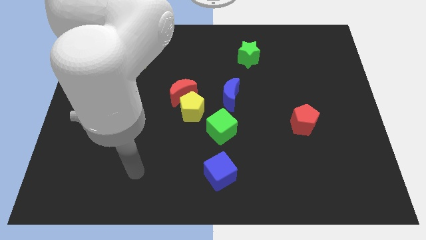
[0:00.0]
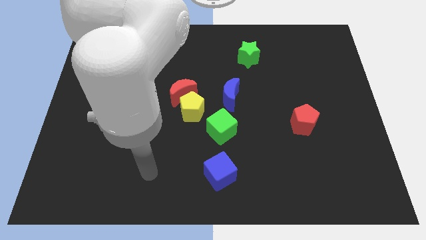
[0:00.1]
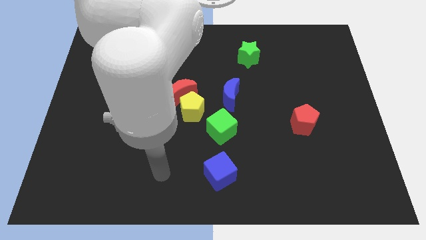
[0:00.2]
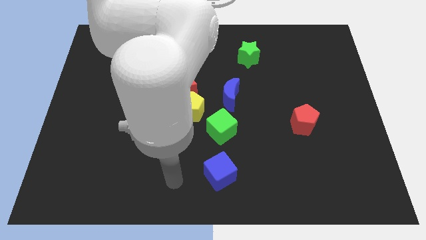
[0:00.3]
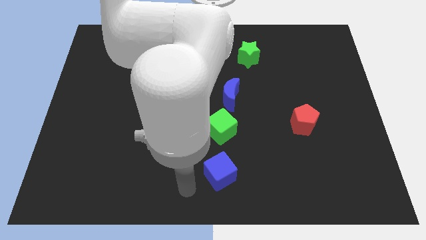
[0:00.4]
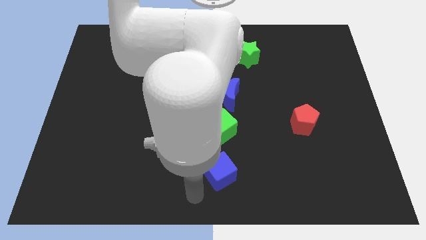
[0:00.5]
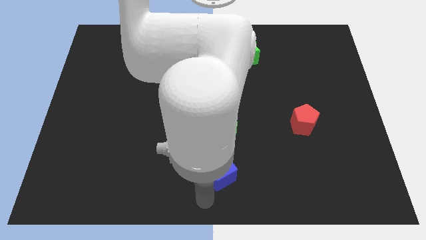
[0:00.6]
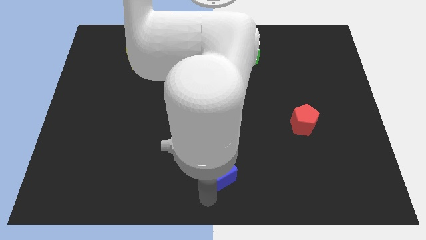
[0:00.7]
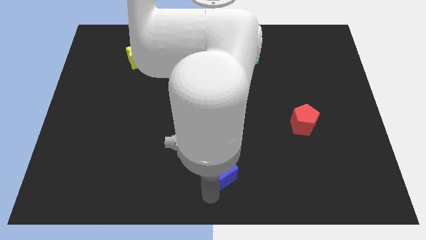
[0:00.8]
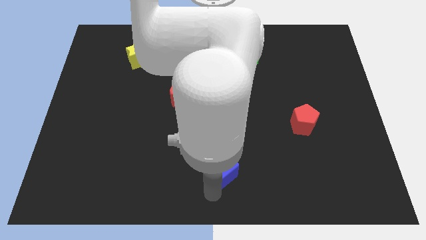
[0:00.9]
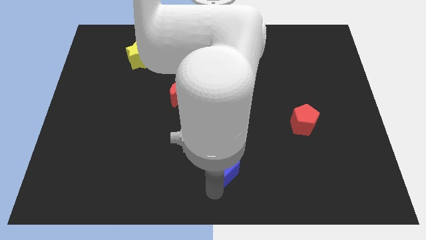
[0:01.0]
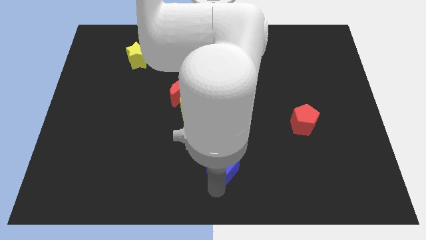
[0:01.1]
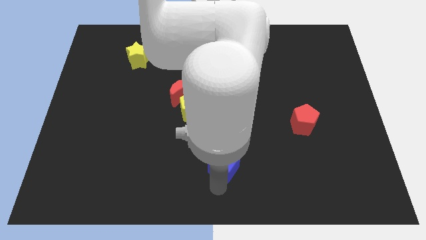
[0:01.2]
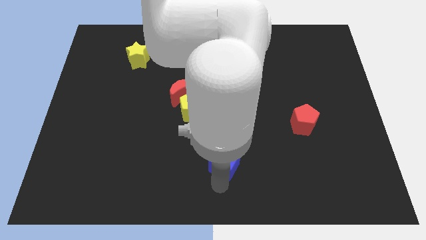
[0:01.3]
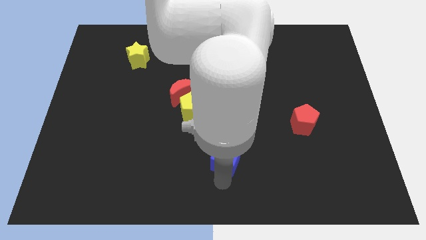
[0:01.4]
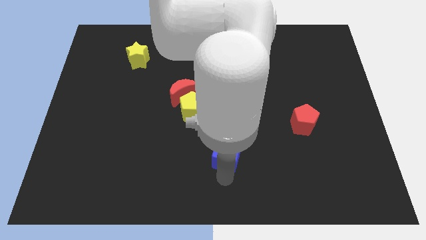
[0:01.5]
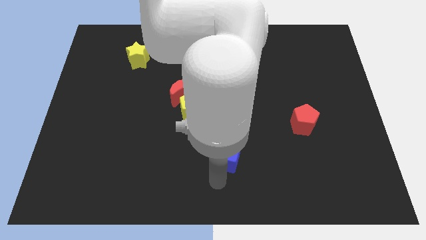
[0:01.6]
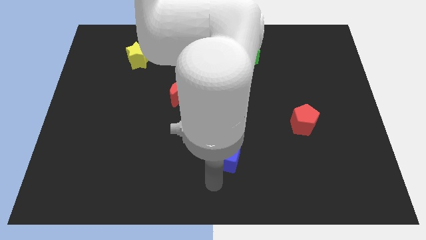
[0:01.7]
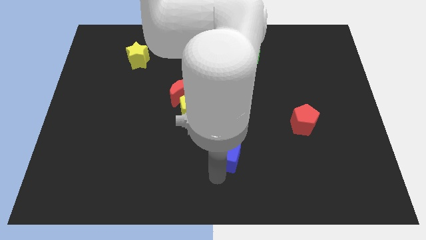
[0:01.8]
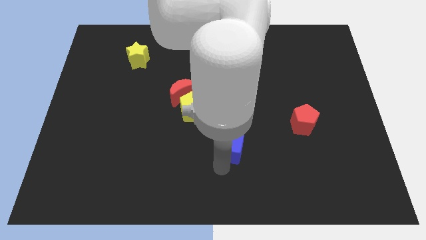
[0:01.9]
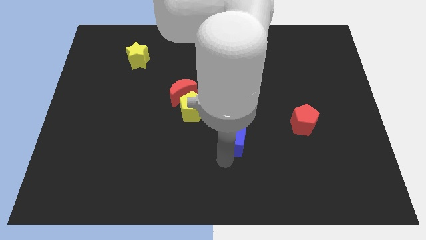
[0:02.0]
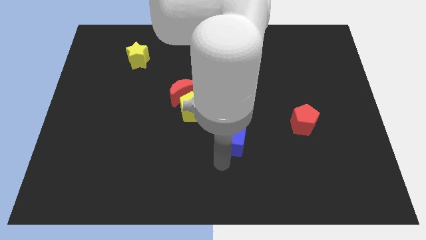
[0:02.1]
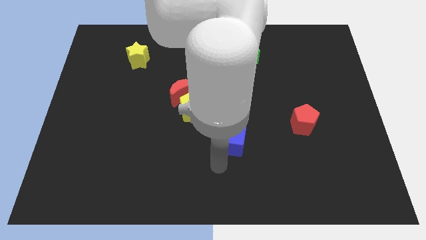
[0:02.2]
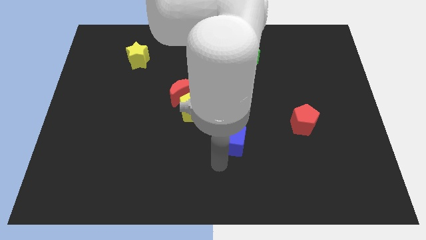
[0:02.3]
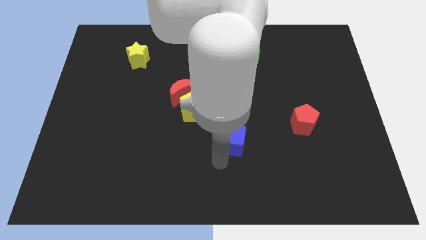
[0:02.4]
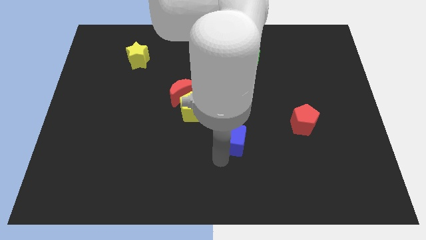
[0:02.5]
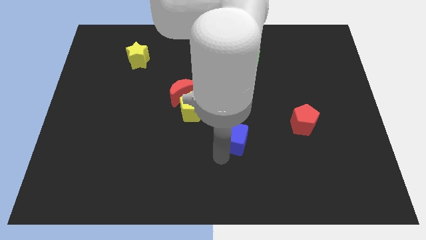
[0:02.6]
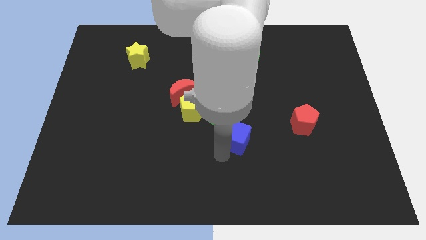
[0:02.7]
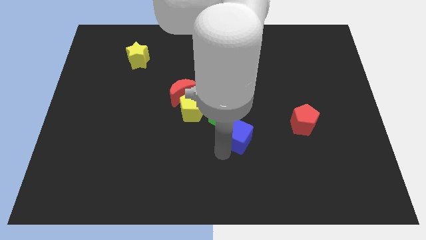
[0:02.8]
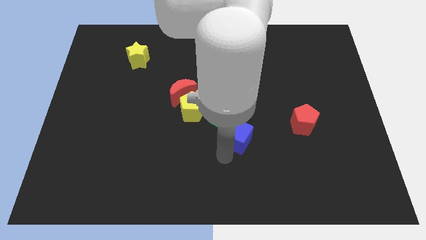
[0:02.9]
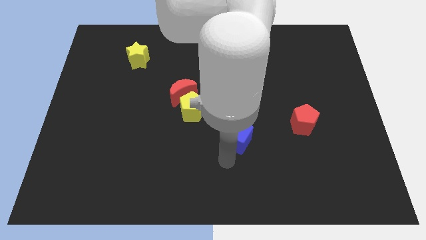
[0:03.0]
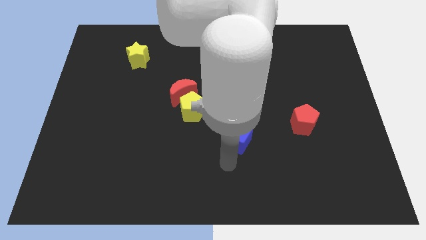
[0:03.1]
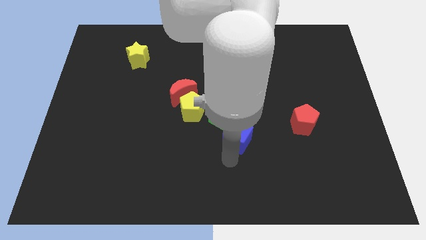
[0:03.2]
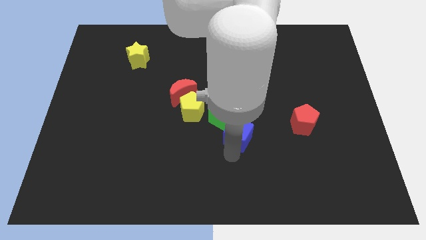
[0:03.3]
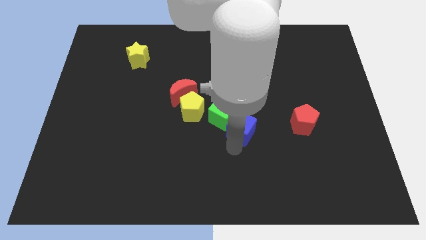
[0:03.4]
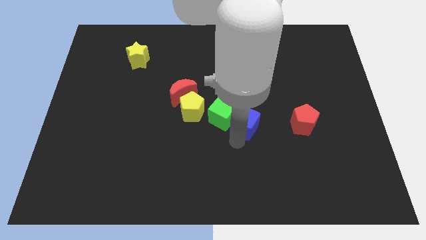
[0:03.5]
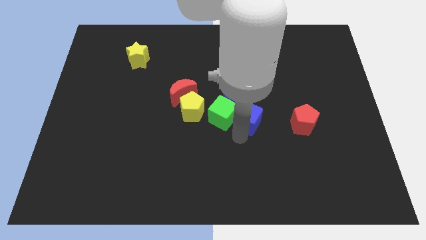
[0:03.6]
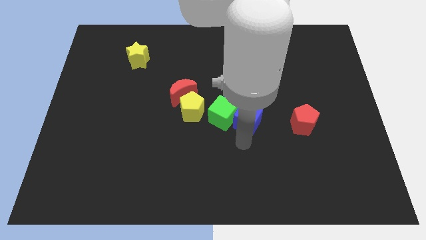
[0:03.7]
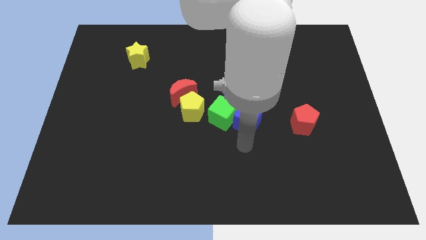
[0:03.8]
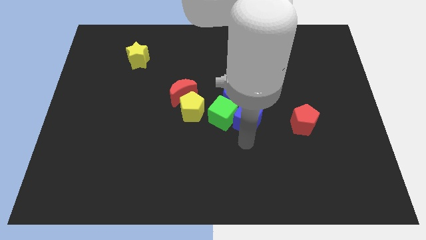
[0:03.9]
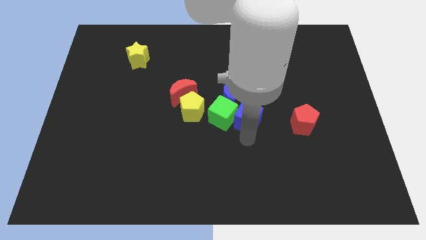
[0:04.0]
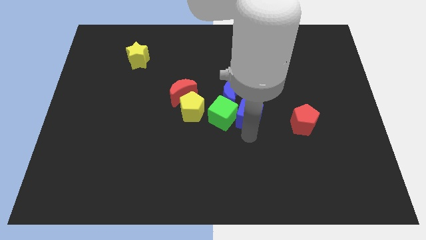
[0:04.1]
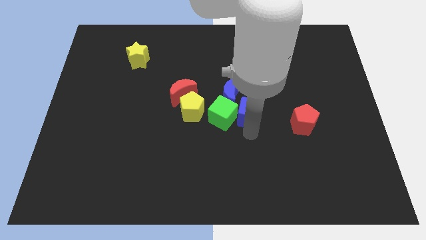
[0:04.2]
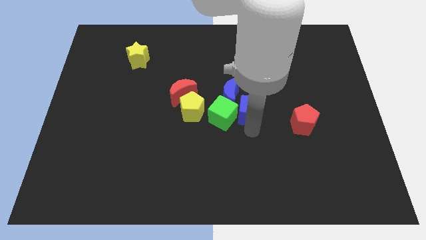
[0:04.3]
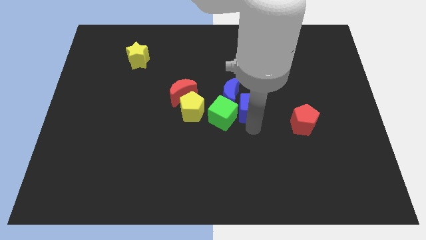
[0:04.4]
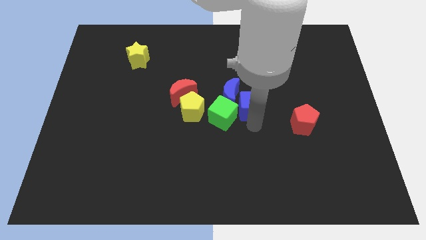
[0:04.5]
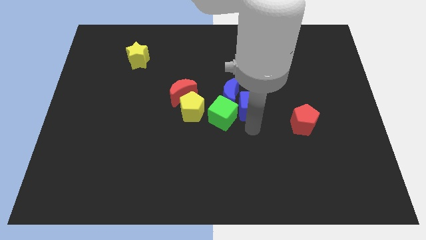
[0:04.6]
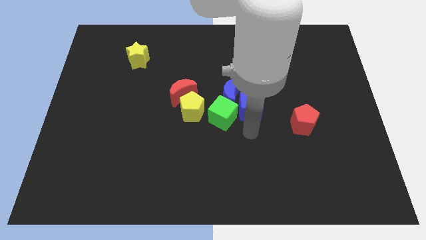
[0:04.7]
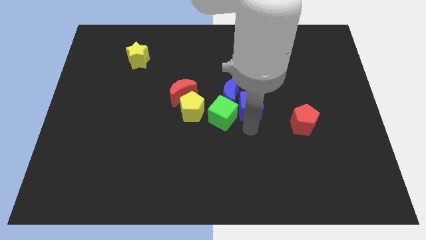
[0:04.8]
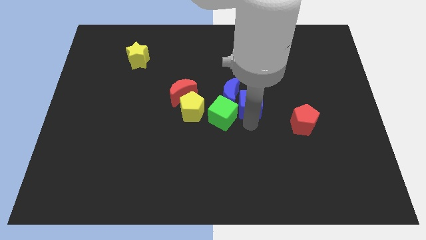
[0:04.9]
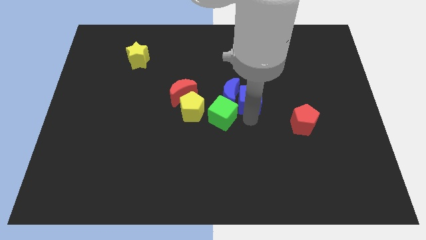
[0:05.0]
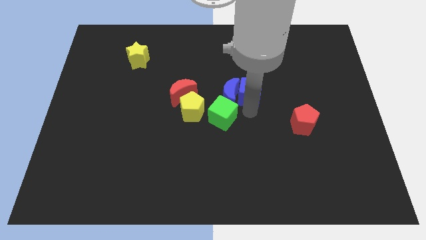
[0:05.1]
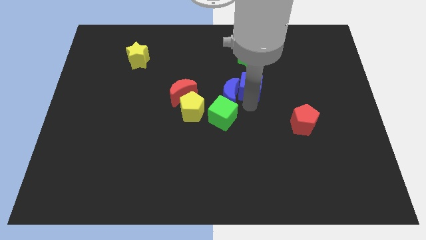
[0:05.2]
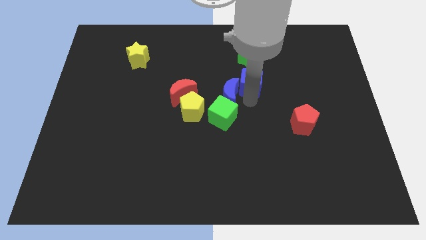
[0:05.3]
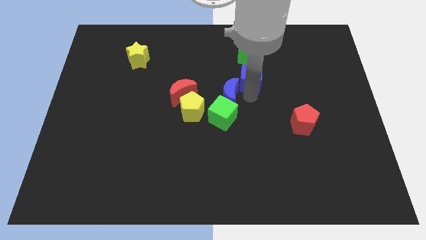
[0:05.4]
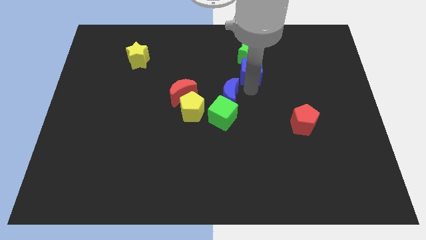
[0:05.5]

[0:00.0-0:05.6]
move the blue cube towards the green star
